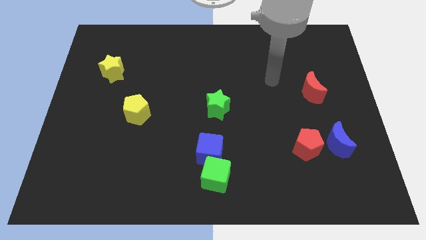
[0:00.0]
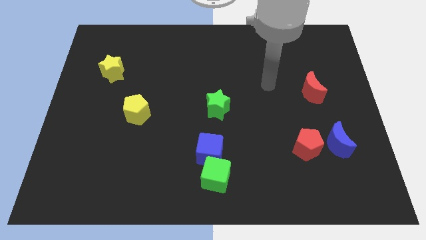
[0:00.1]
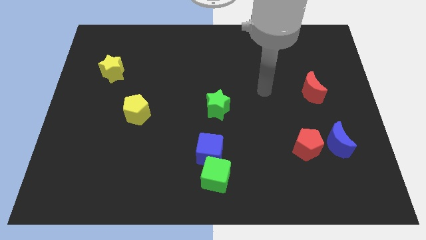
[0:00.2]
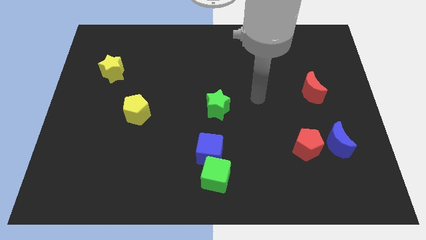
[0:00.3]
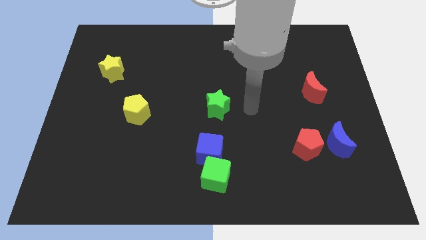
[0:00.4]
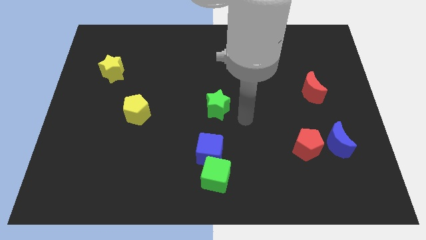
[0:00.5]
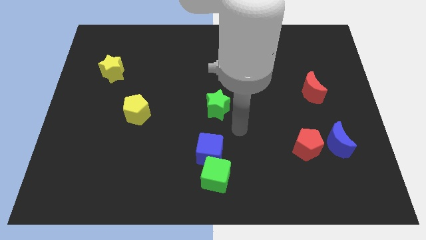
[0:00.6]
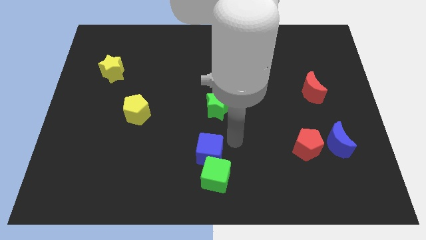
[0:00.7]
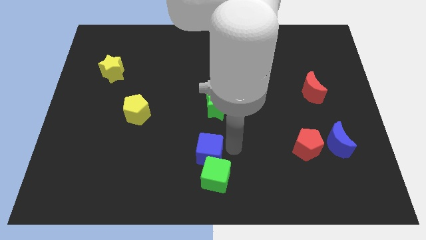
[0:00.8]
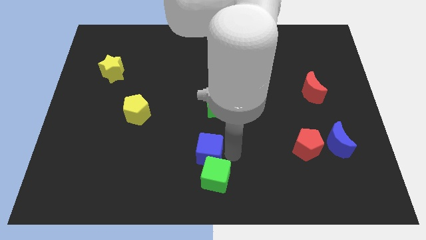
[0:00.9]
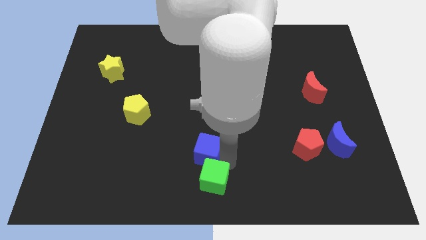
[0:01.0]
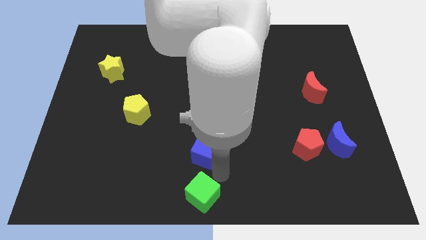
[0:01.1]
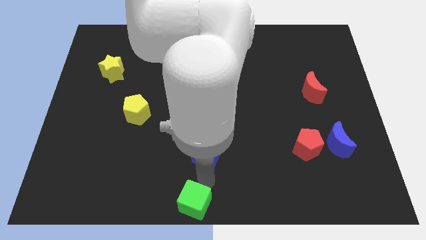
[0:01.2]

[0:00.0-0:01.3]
move the blue cube away from the green cube

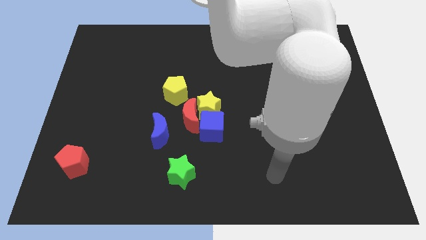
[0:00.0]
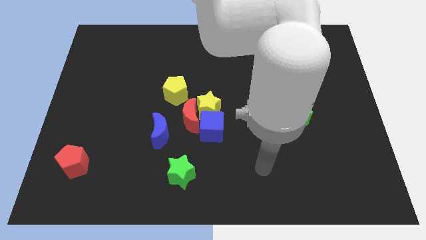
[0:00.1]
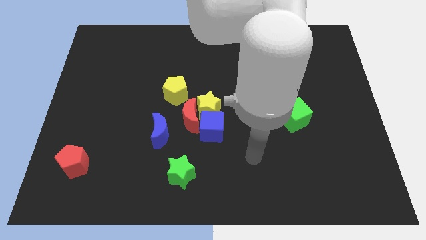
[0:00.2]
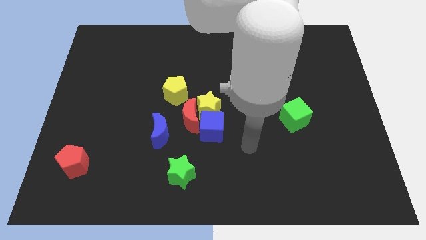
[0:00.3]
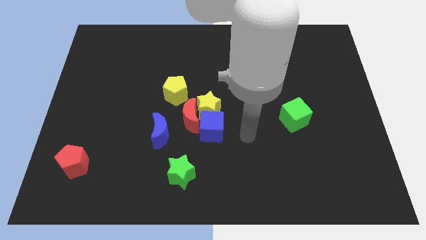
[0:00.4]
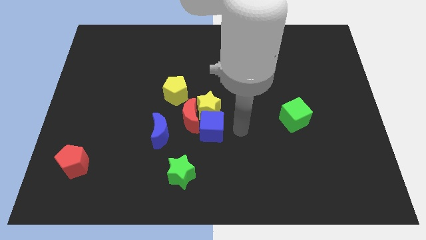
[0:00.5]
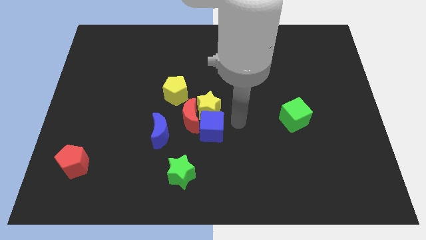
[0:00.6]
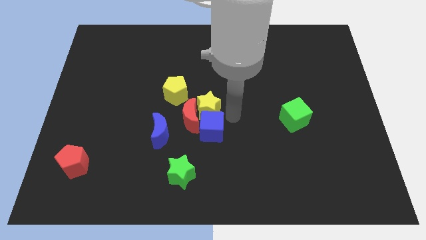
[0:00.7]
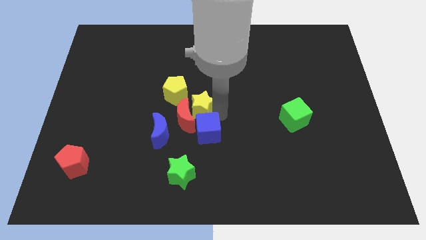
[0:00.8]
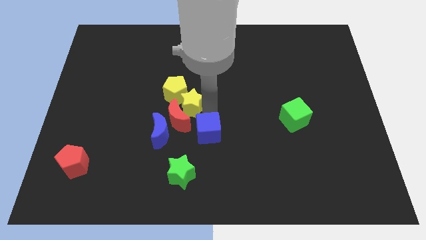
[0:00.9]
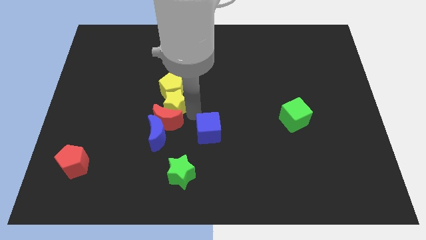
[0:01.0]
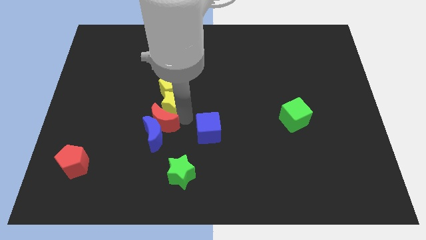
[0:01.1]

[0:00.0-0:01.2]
move the blue cube away from the yellow star and red moon

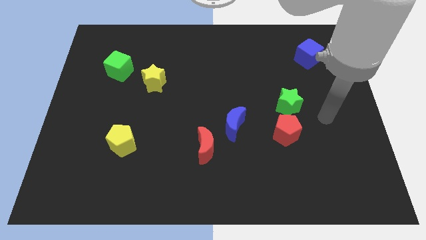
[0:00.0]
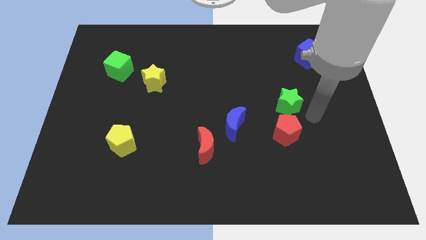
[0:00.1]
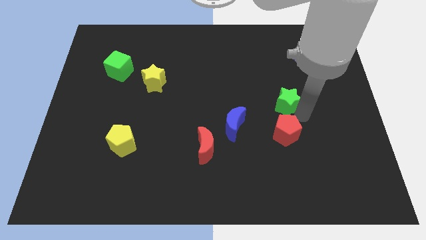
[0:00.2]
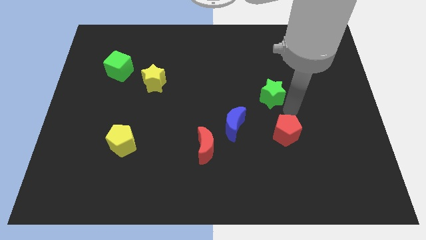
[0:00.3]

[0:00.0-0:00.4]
move the red pentagon away from the green star

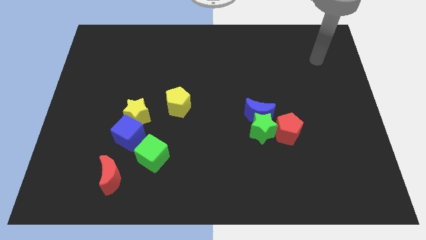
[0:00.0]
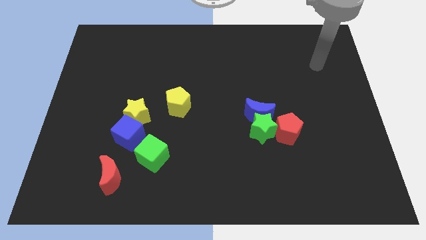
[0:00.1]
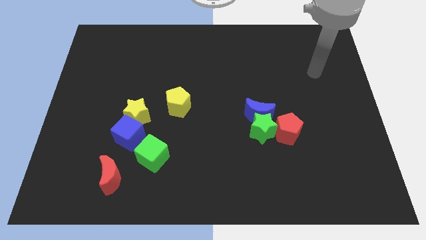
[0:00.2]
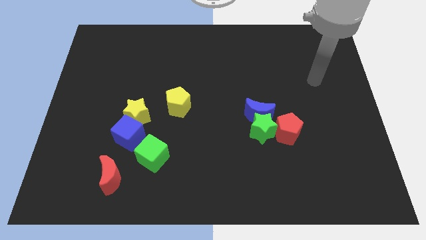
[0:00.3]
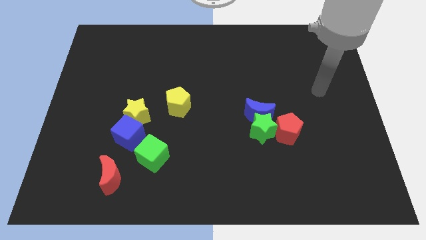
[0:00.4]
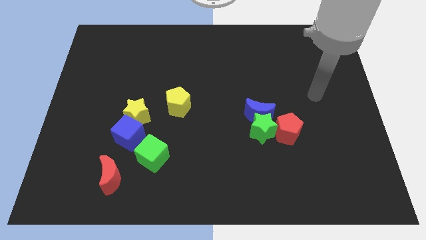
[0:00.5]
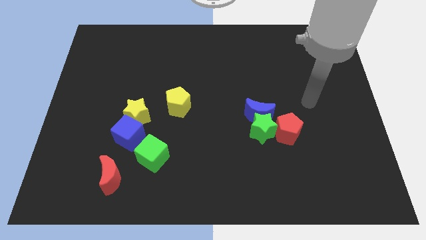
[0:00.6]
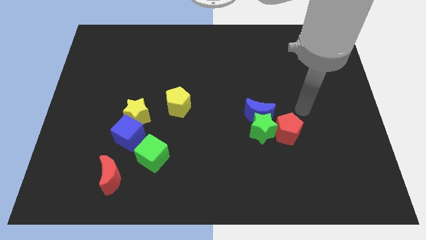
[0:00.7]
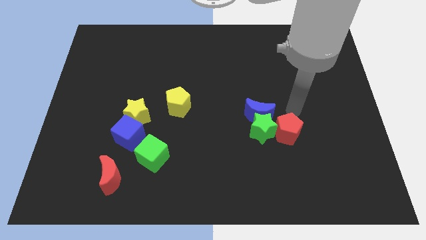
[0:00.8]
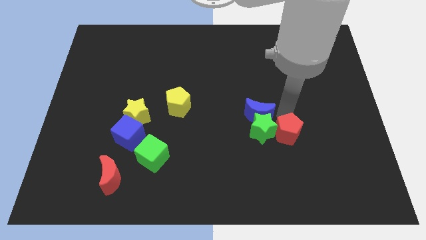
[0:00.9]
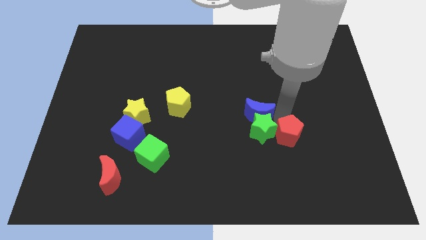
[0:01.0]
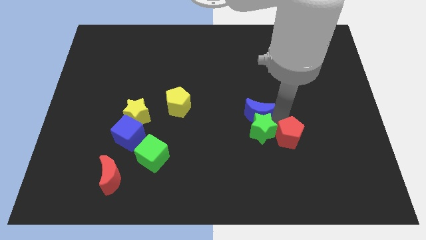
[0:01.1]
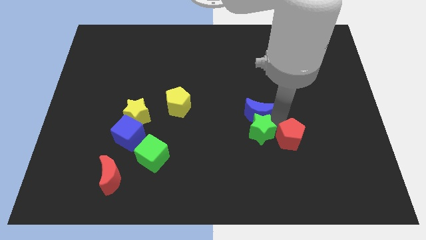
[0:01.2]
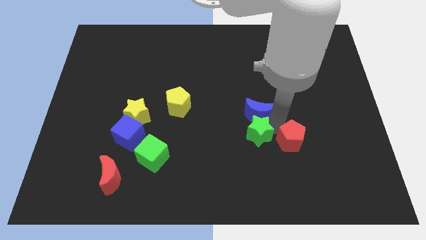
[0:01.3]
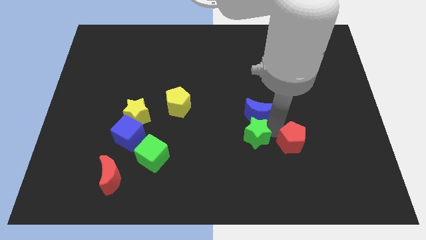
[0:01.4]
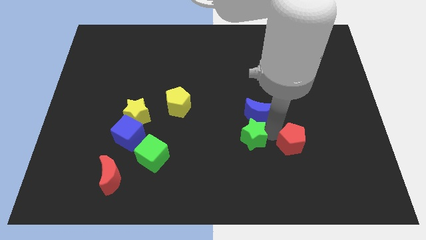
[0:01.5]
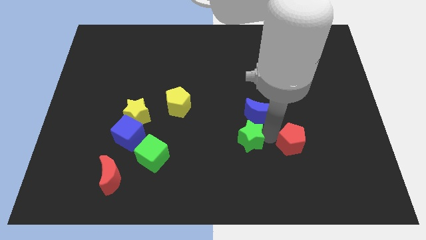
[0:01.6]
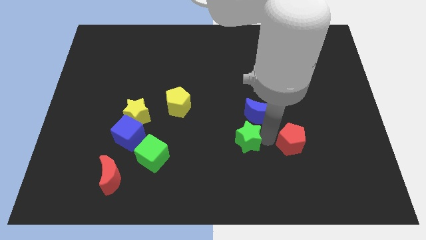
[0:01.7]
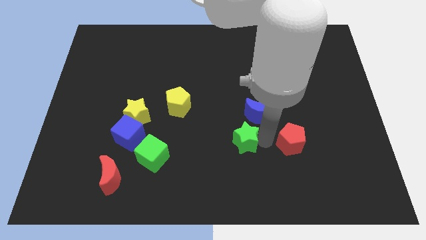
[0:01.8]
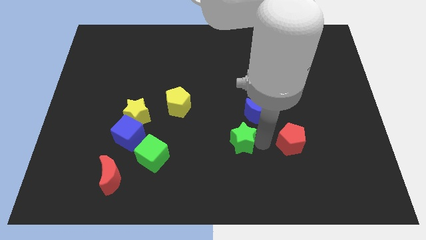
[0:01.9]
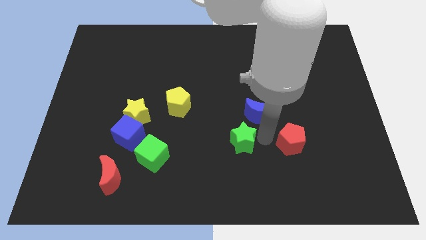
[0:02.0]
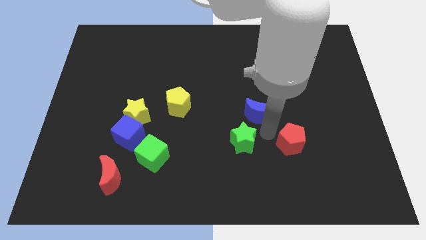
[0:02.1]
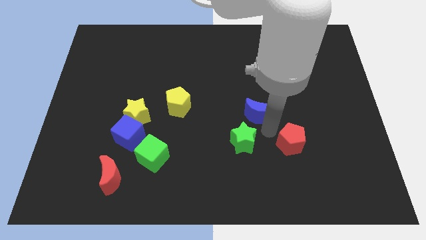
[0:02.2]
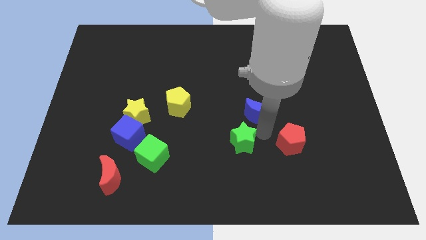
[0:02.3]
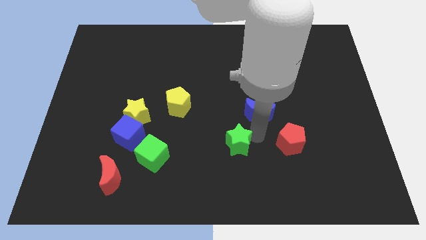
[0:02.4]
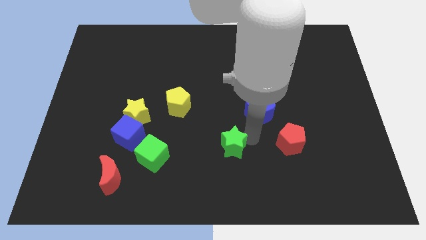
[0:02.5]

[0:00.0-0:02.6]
pull the green star apart from the blue moon and red pentagon

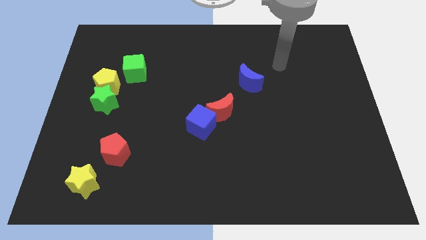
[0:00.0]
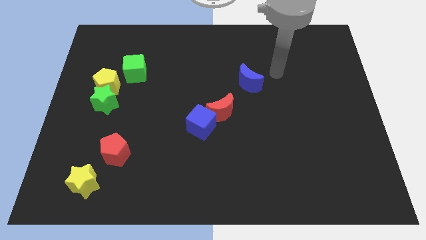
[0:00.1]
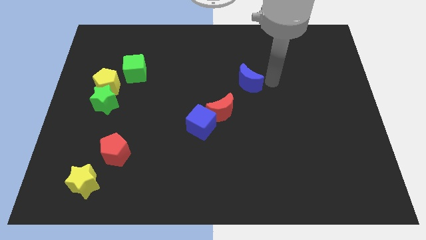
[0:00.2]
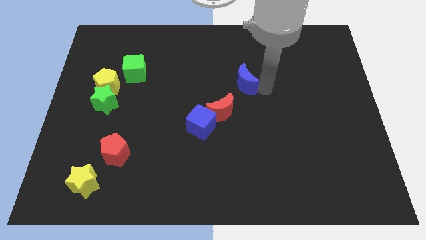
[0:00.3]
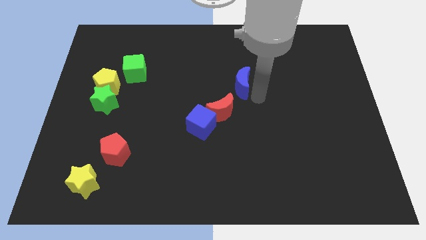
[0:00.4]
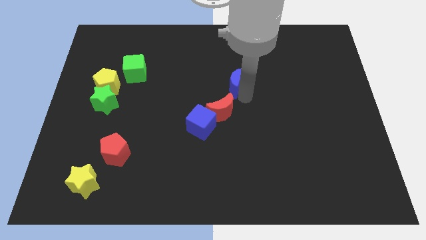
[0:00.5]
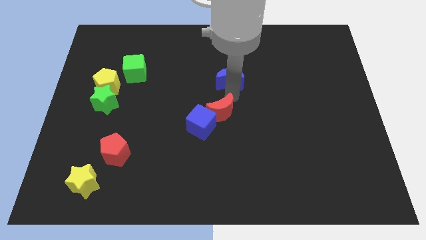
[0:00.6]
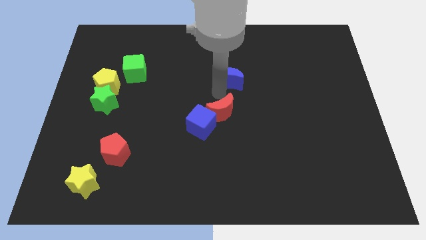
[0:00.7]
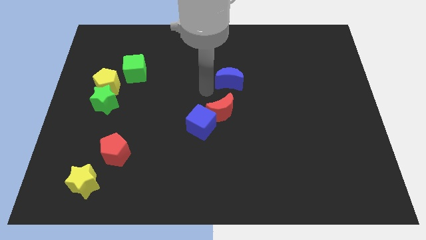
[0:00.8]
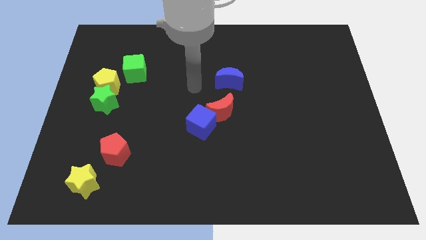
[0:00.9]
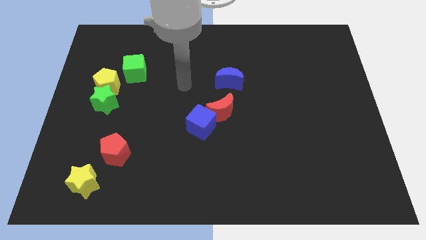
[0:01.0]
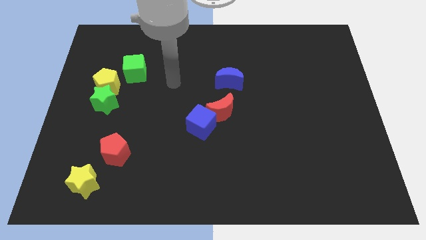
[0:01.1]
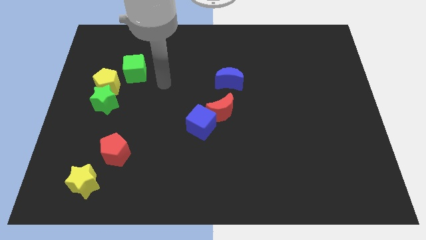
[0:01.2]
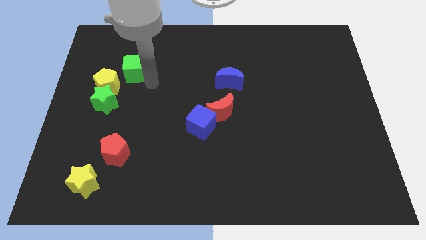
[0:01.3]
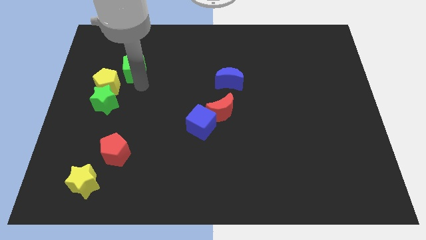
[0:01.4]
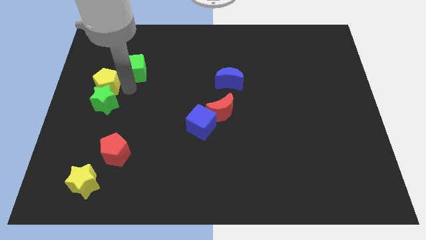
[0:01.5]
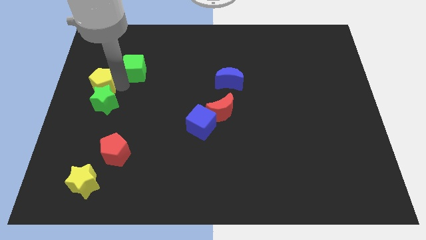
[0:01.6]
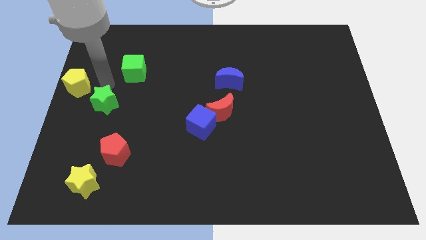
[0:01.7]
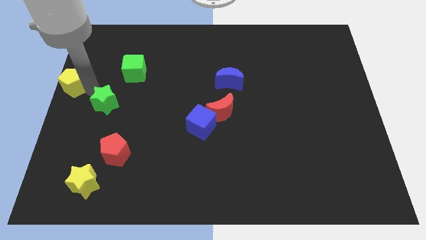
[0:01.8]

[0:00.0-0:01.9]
separate the green star from the yellow pentagon

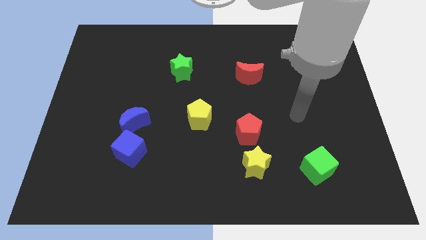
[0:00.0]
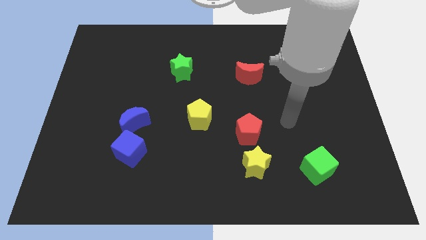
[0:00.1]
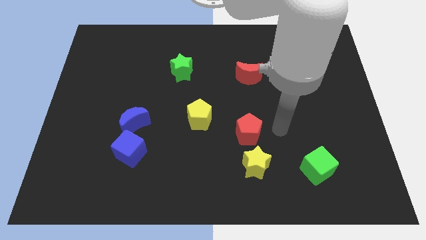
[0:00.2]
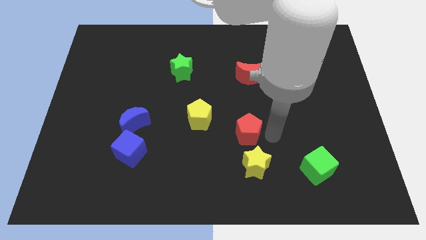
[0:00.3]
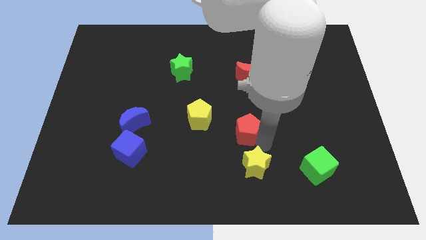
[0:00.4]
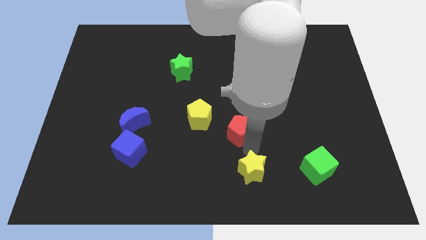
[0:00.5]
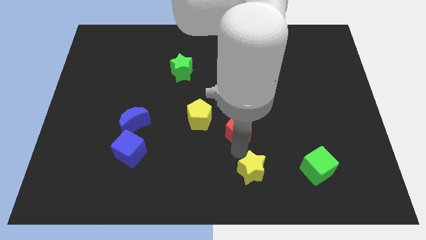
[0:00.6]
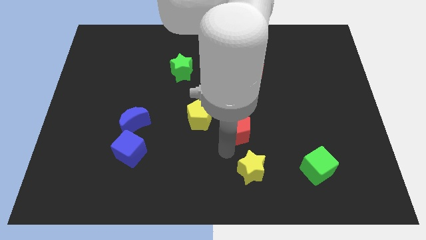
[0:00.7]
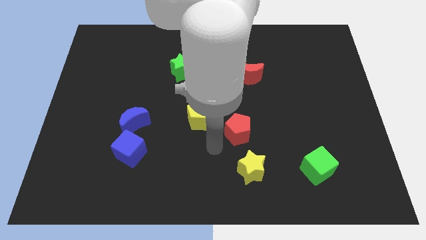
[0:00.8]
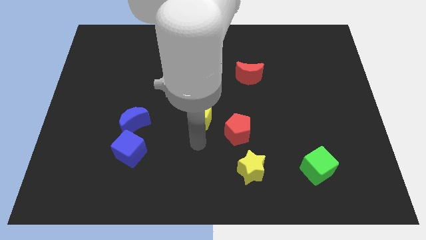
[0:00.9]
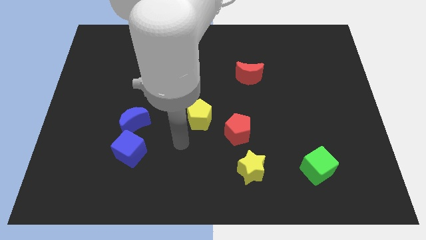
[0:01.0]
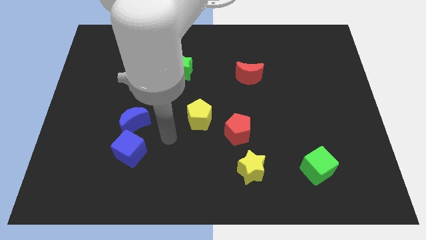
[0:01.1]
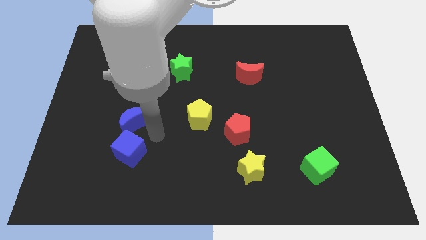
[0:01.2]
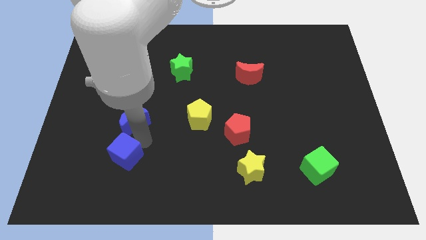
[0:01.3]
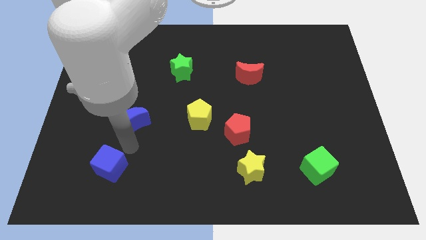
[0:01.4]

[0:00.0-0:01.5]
pull the blue moon apart from the blue cube

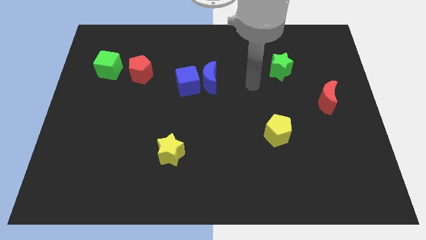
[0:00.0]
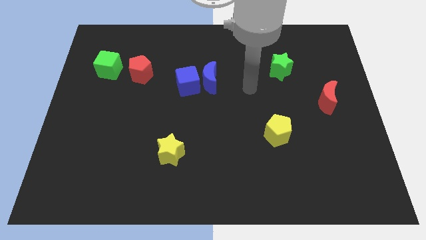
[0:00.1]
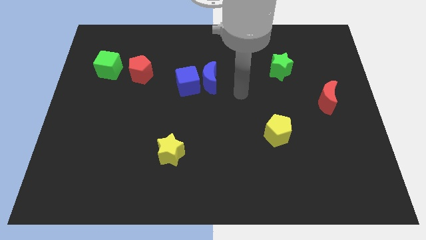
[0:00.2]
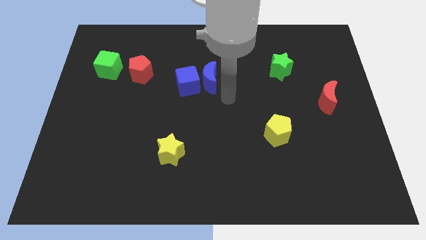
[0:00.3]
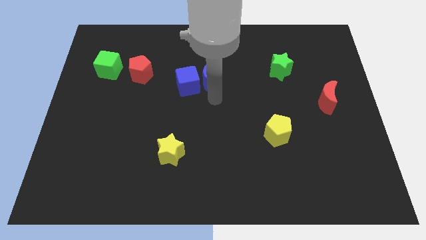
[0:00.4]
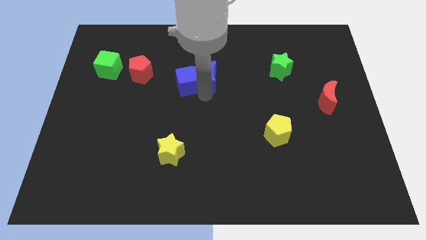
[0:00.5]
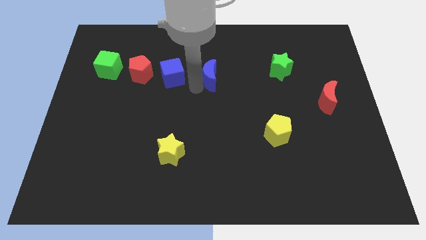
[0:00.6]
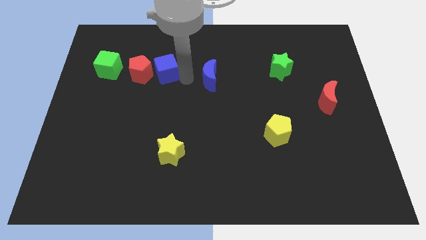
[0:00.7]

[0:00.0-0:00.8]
separate the blue moon from the blue cube
